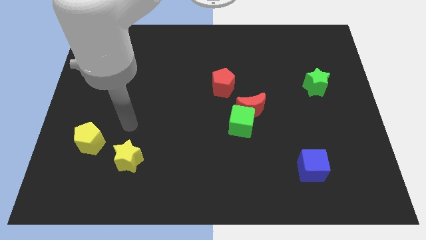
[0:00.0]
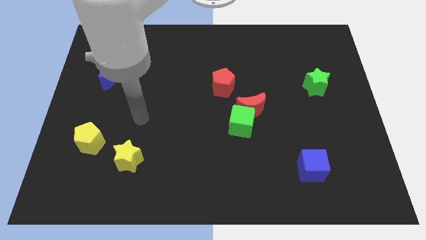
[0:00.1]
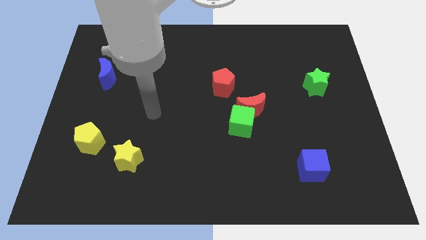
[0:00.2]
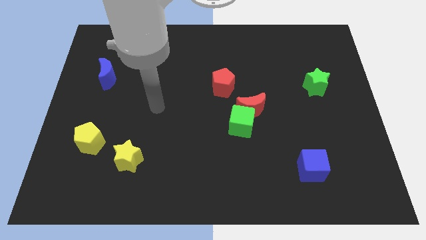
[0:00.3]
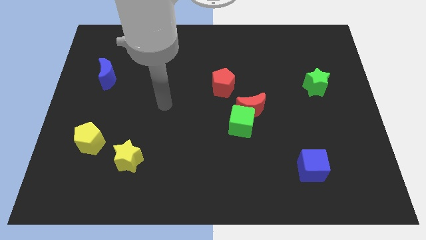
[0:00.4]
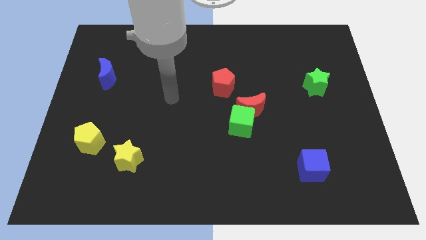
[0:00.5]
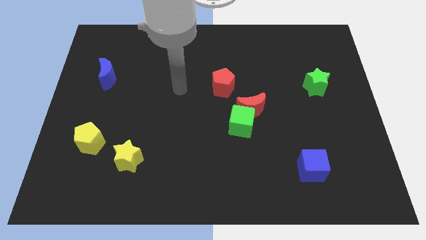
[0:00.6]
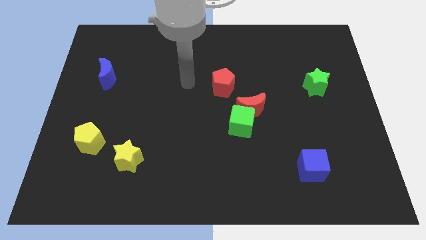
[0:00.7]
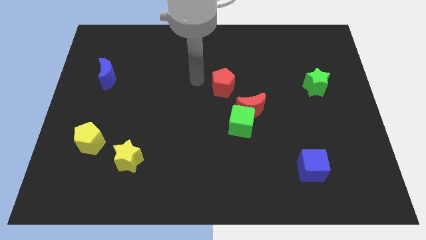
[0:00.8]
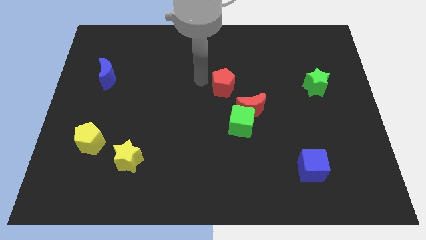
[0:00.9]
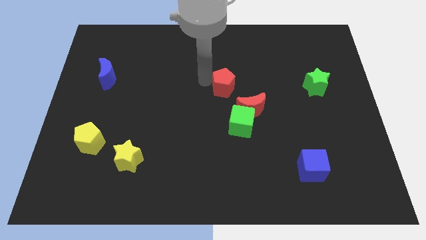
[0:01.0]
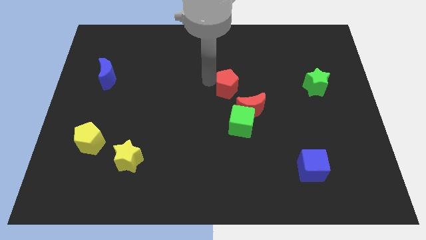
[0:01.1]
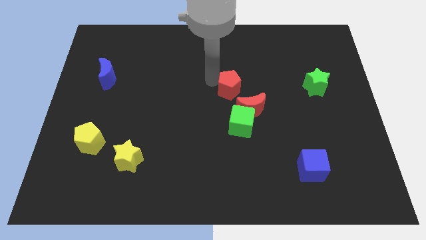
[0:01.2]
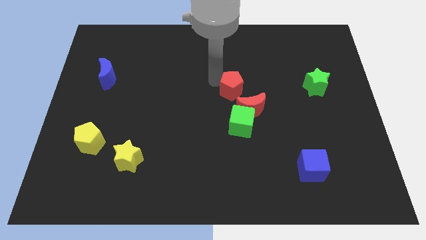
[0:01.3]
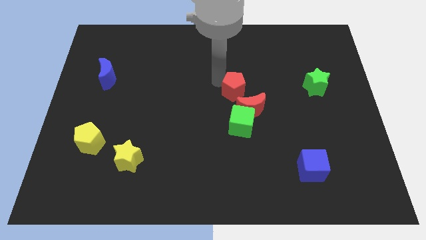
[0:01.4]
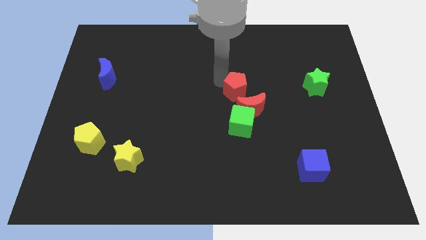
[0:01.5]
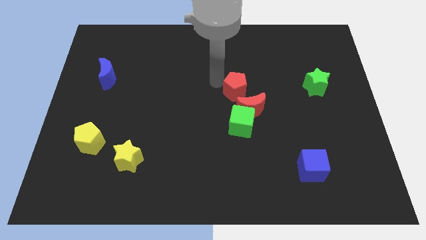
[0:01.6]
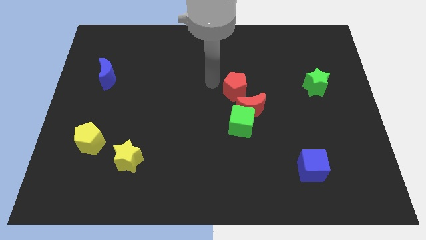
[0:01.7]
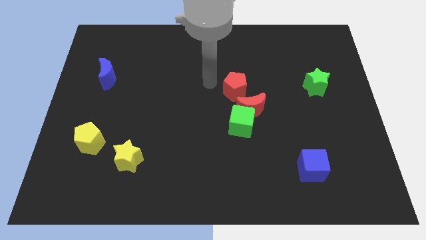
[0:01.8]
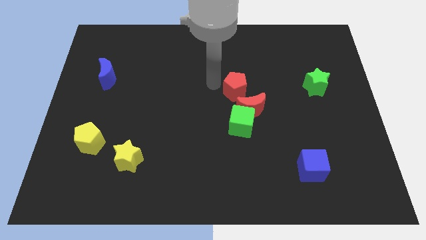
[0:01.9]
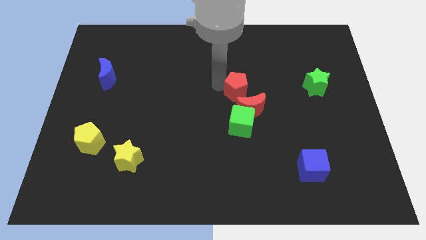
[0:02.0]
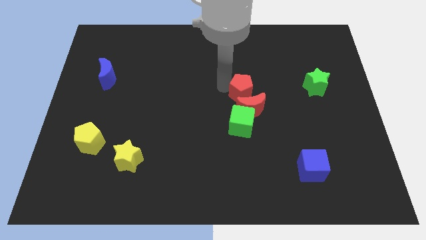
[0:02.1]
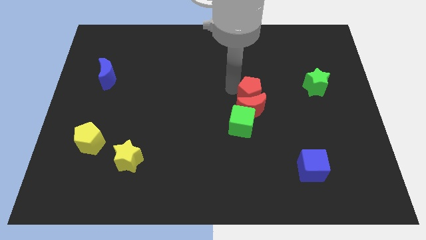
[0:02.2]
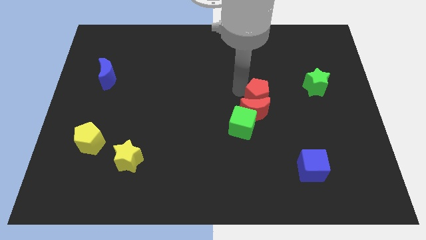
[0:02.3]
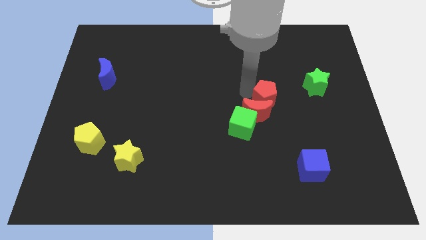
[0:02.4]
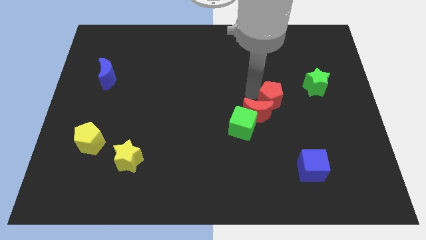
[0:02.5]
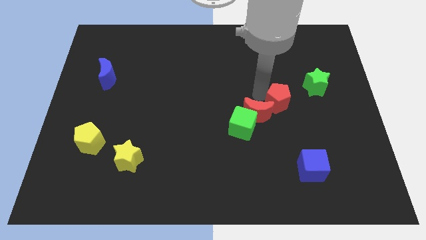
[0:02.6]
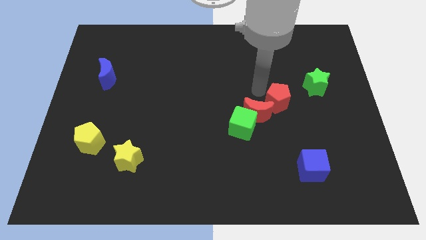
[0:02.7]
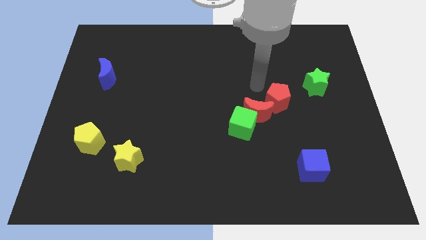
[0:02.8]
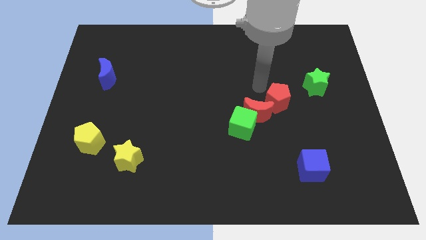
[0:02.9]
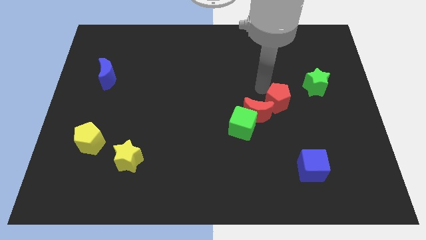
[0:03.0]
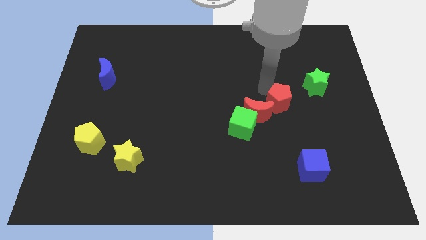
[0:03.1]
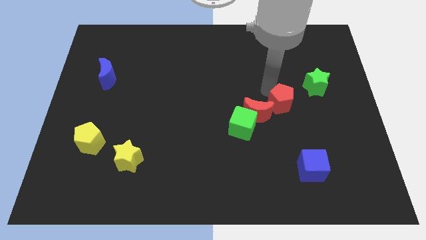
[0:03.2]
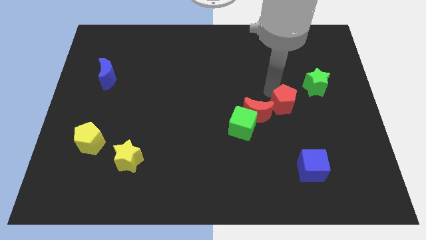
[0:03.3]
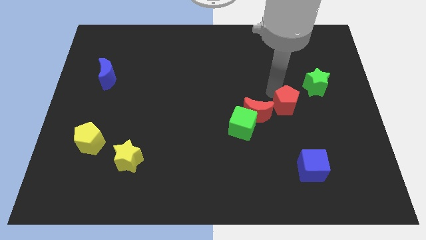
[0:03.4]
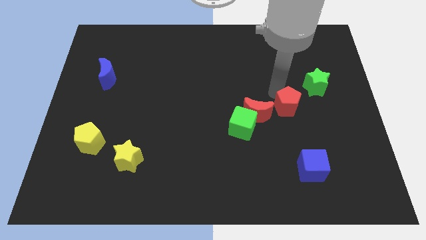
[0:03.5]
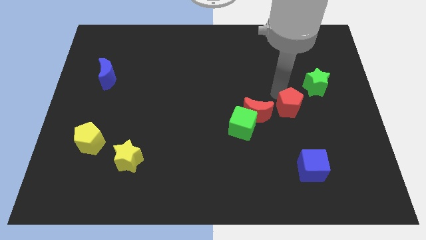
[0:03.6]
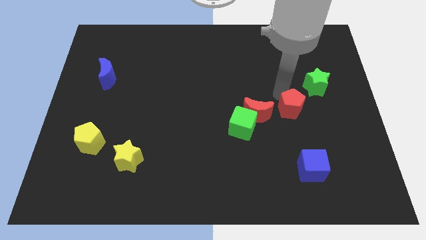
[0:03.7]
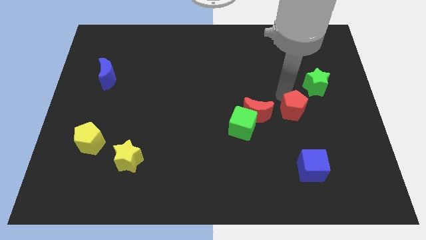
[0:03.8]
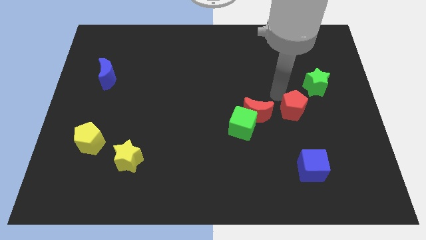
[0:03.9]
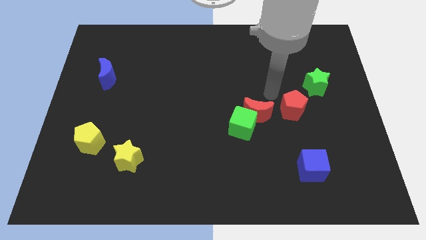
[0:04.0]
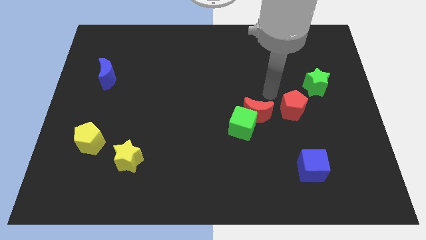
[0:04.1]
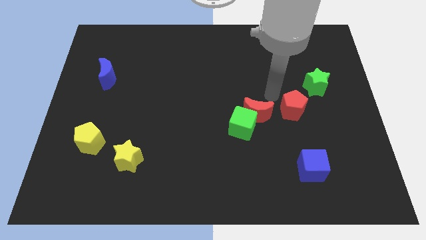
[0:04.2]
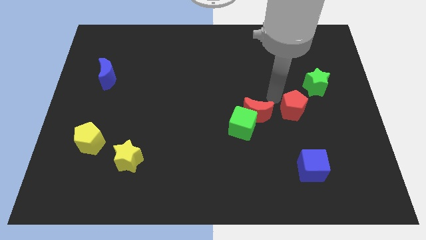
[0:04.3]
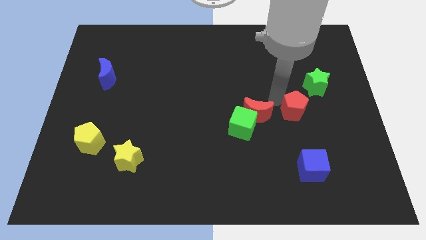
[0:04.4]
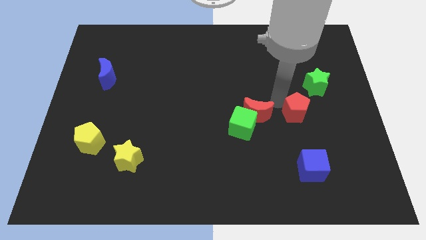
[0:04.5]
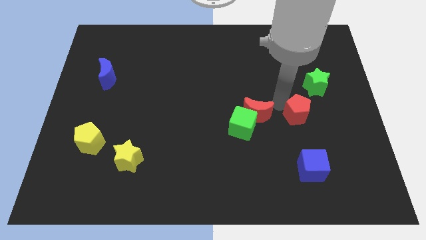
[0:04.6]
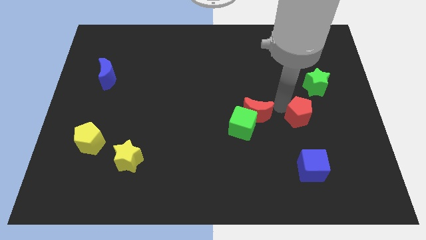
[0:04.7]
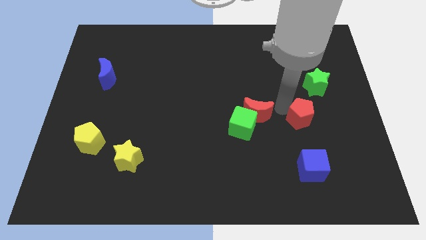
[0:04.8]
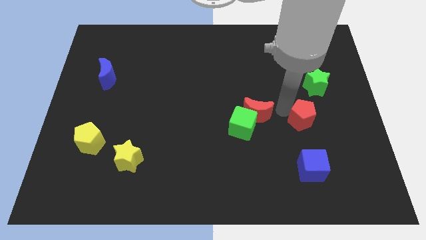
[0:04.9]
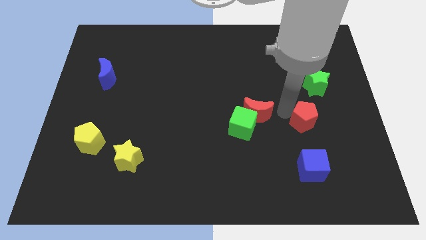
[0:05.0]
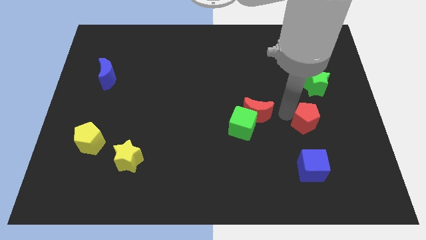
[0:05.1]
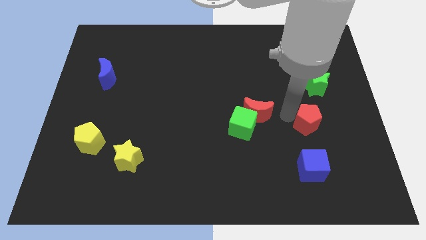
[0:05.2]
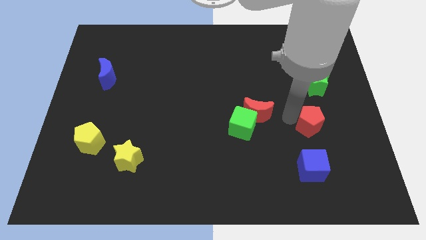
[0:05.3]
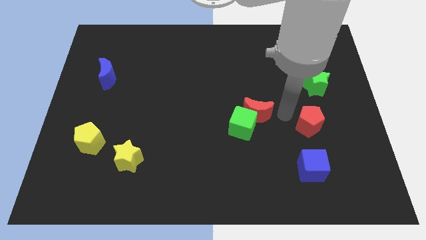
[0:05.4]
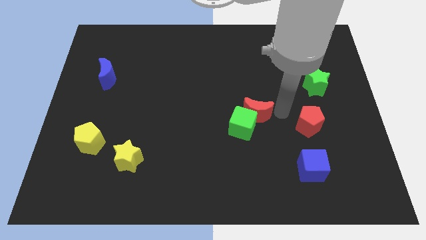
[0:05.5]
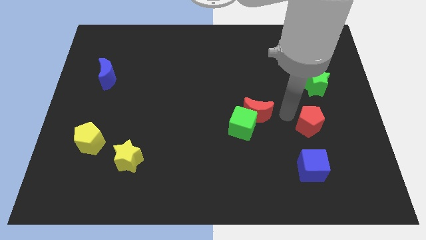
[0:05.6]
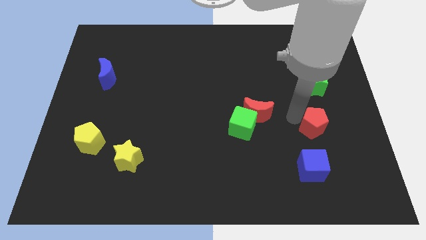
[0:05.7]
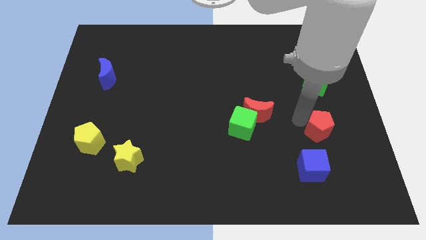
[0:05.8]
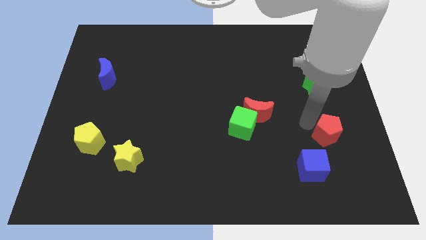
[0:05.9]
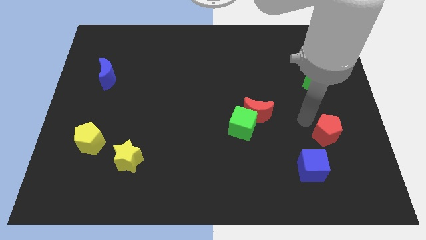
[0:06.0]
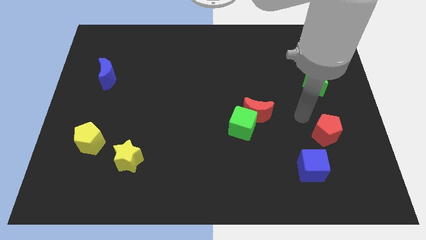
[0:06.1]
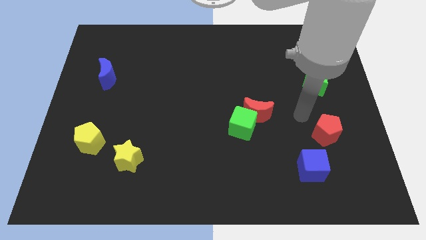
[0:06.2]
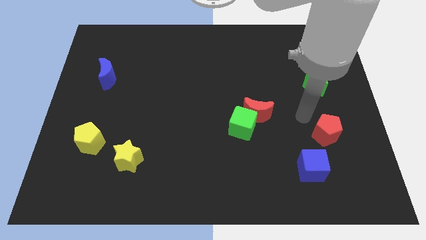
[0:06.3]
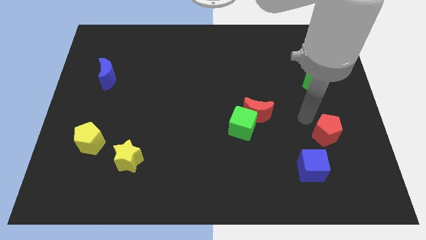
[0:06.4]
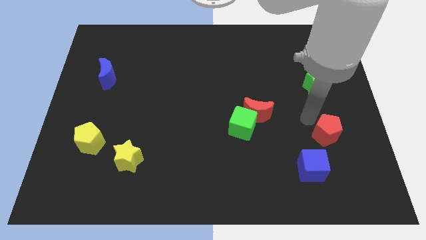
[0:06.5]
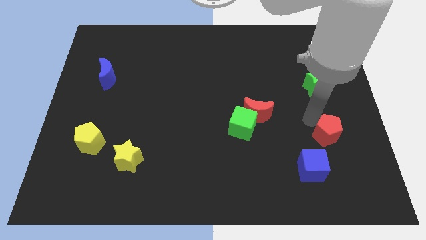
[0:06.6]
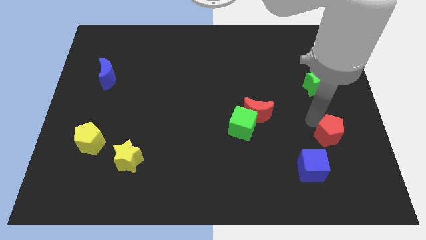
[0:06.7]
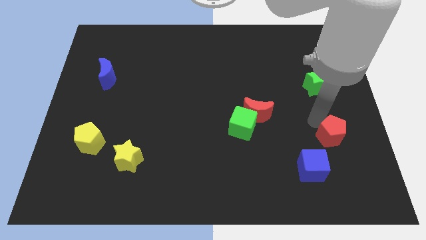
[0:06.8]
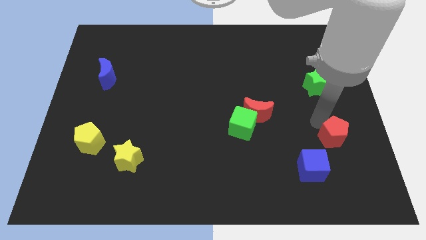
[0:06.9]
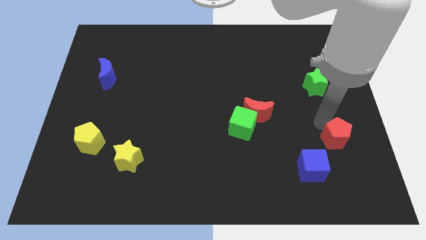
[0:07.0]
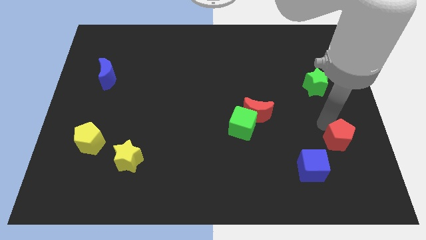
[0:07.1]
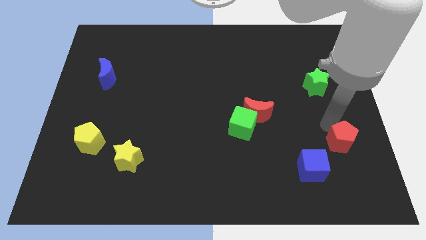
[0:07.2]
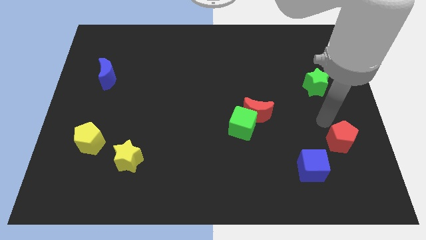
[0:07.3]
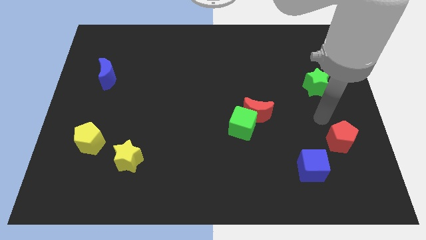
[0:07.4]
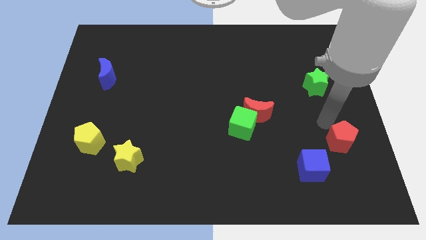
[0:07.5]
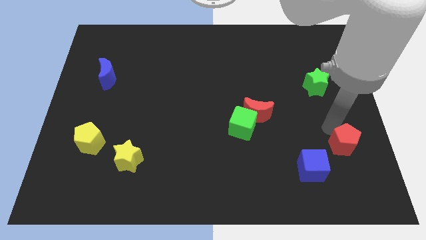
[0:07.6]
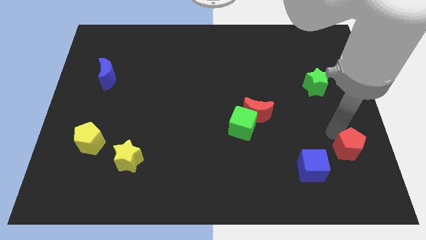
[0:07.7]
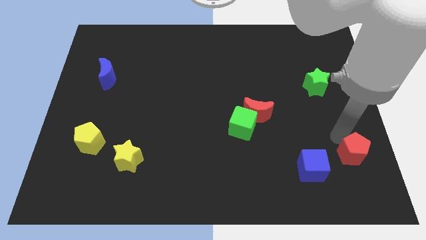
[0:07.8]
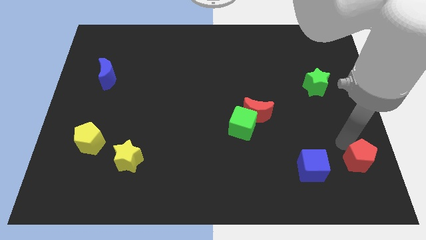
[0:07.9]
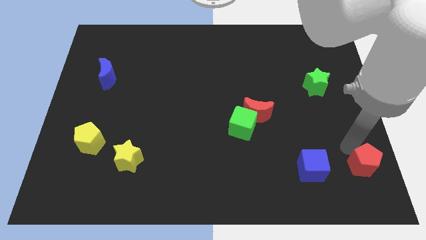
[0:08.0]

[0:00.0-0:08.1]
put the red pentagon to the lower right corner
